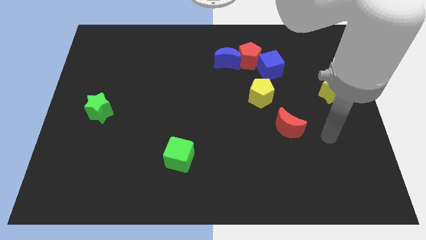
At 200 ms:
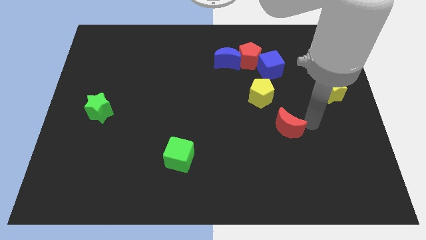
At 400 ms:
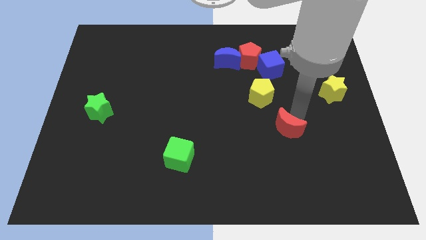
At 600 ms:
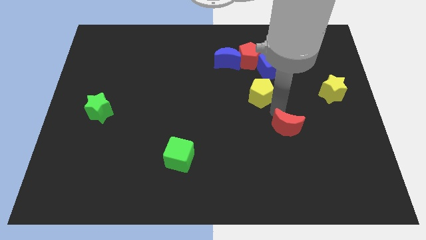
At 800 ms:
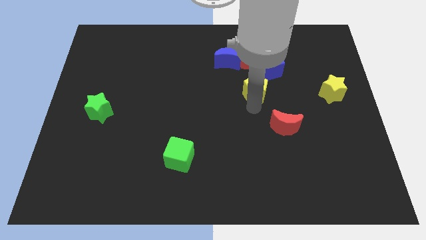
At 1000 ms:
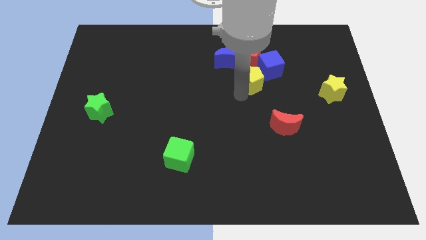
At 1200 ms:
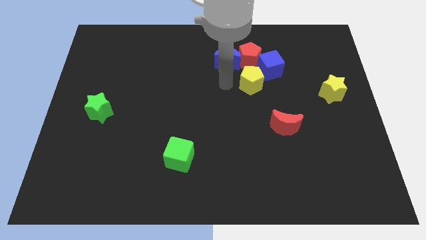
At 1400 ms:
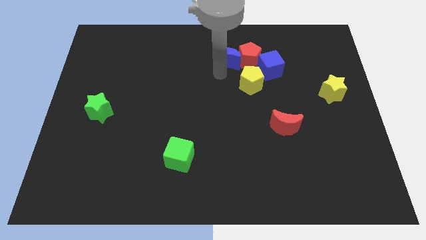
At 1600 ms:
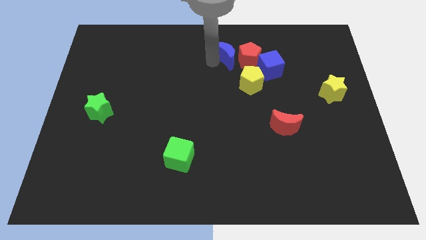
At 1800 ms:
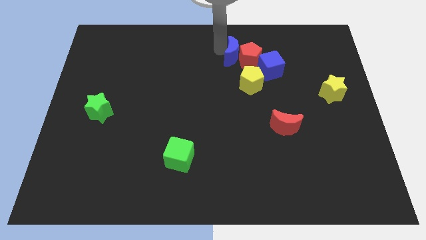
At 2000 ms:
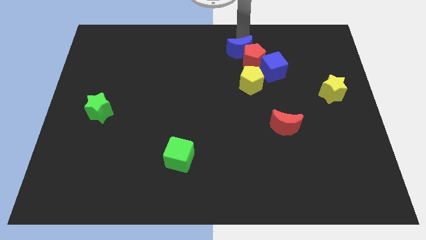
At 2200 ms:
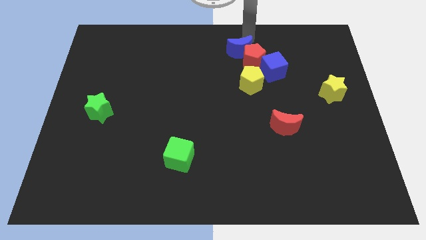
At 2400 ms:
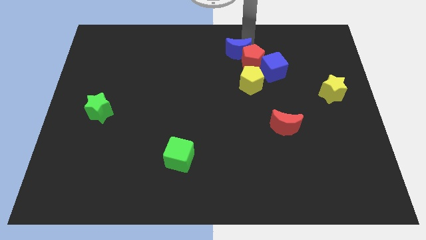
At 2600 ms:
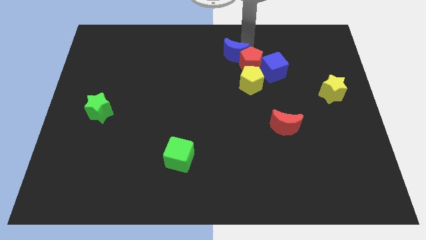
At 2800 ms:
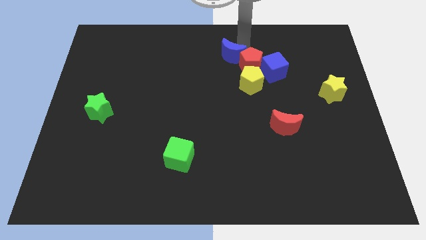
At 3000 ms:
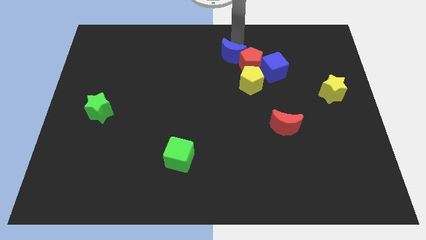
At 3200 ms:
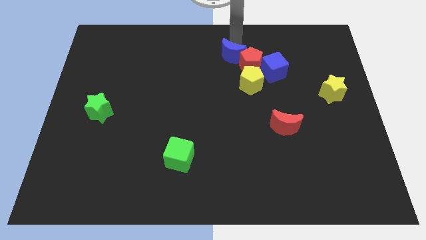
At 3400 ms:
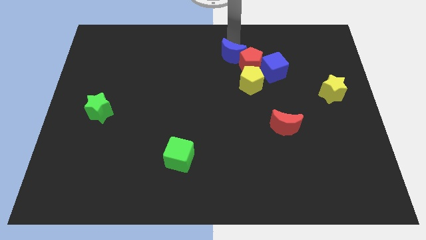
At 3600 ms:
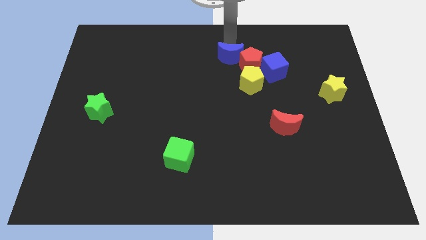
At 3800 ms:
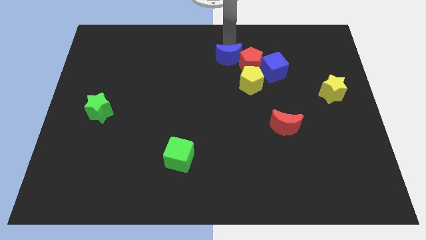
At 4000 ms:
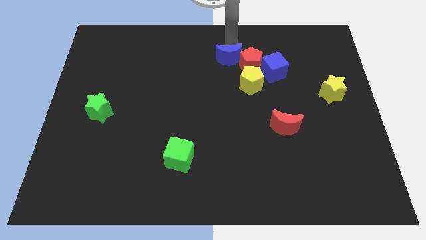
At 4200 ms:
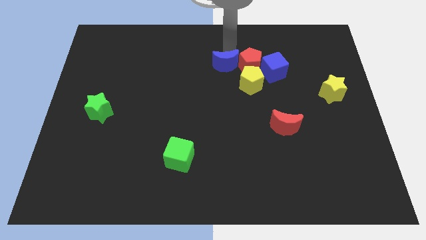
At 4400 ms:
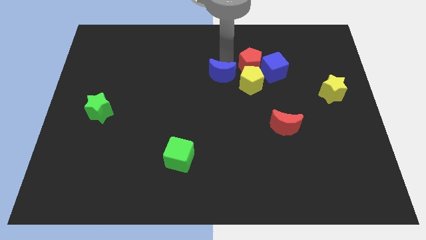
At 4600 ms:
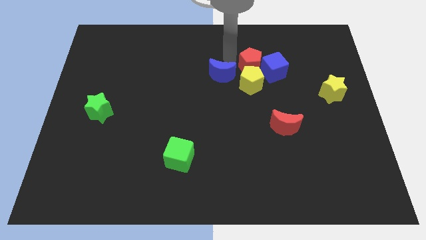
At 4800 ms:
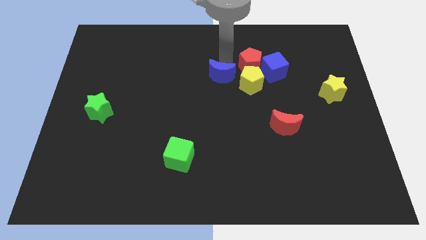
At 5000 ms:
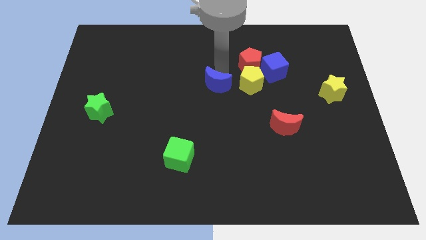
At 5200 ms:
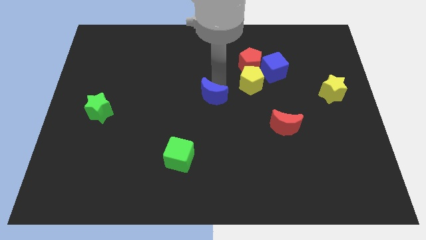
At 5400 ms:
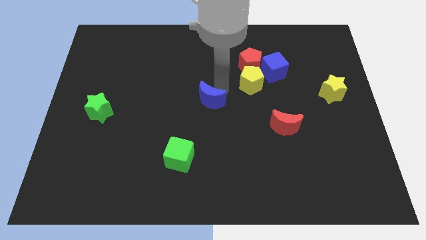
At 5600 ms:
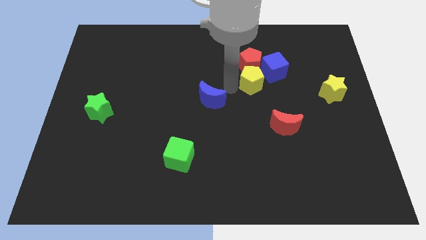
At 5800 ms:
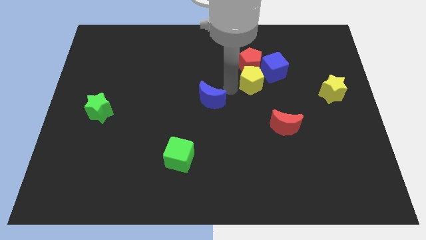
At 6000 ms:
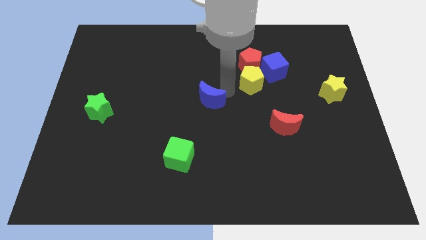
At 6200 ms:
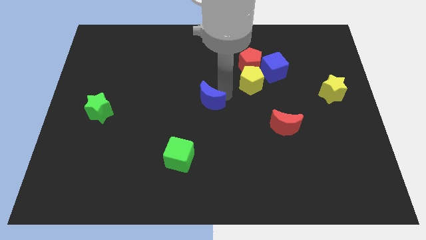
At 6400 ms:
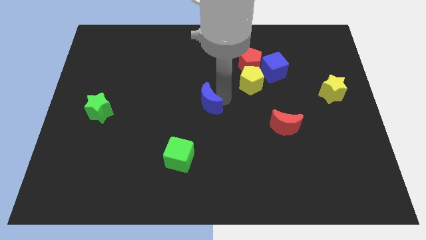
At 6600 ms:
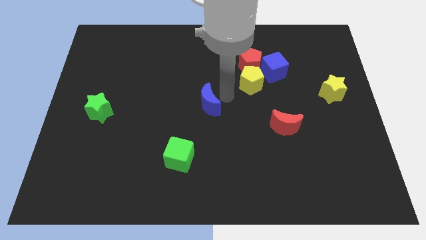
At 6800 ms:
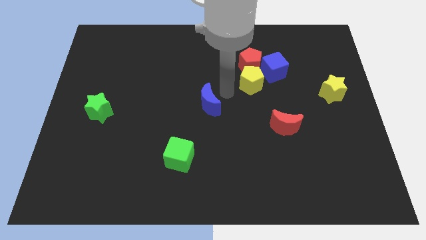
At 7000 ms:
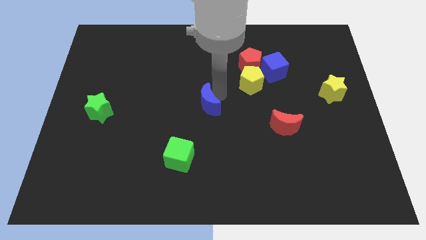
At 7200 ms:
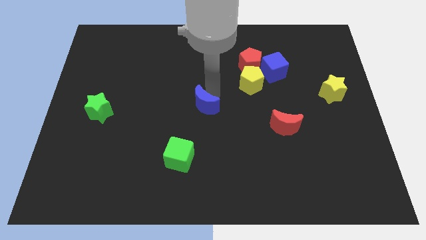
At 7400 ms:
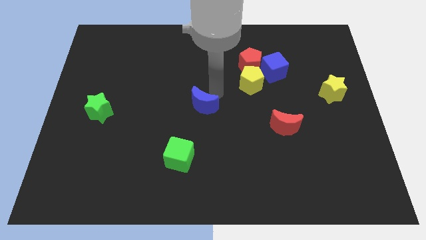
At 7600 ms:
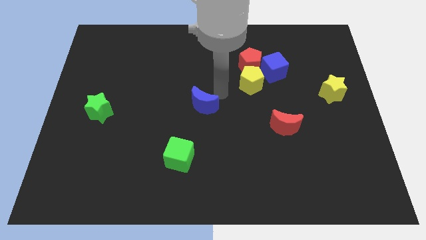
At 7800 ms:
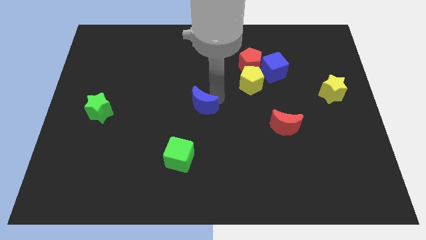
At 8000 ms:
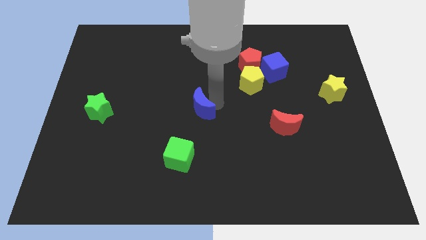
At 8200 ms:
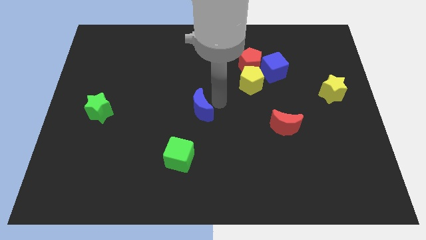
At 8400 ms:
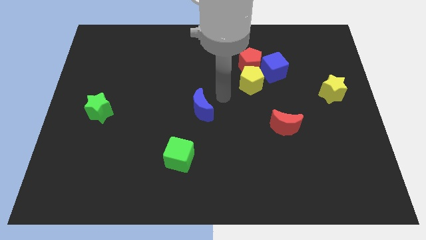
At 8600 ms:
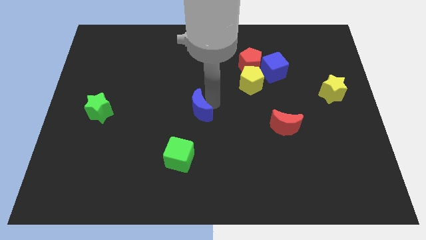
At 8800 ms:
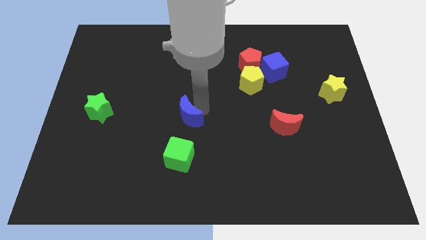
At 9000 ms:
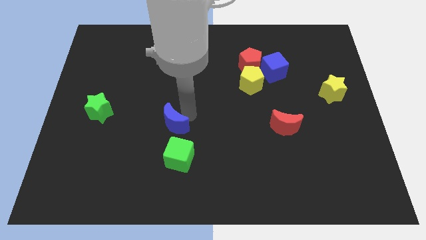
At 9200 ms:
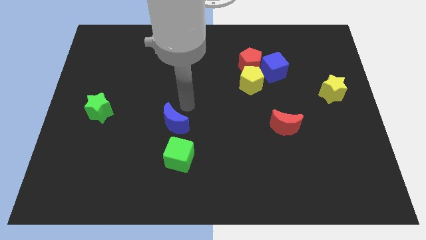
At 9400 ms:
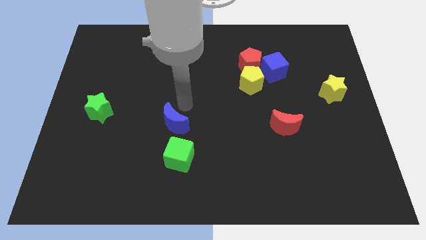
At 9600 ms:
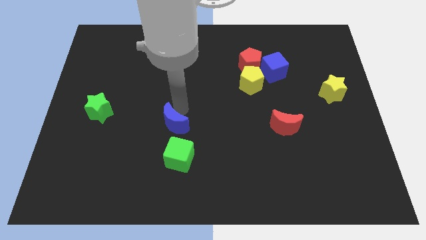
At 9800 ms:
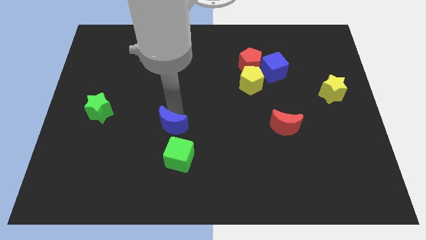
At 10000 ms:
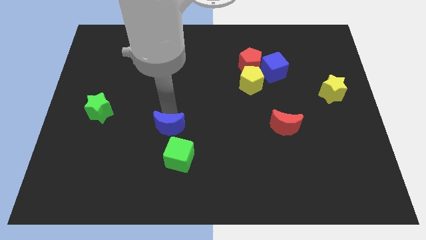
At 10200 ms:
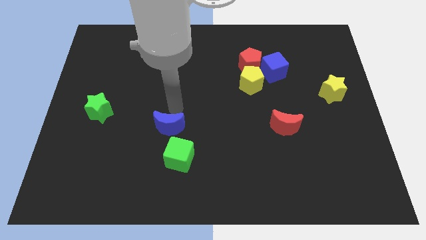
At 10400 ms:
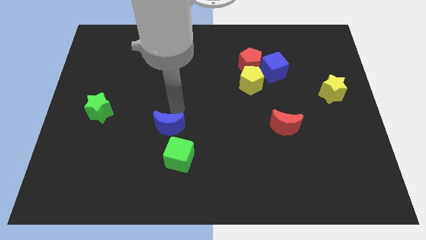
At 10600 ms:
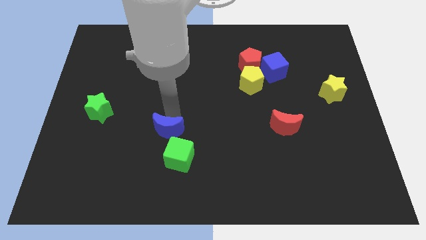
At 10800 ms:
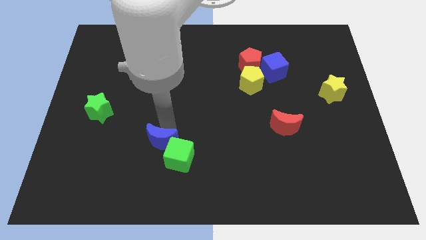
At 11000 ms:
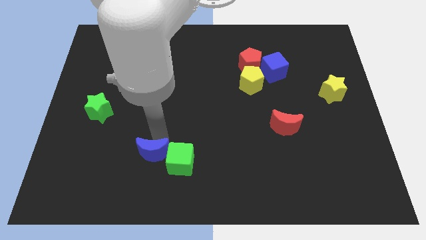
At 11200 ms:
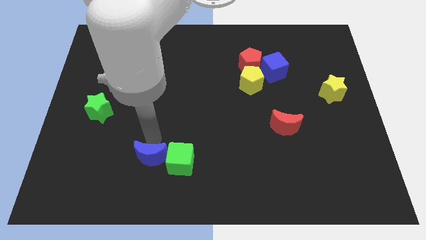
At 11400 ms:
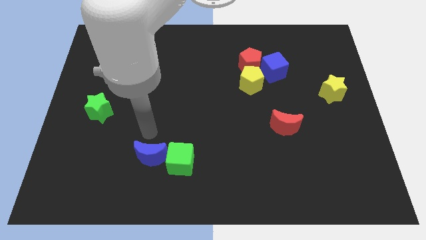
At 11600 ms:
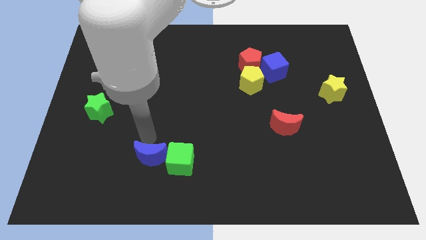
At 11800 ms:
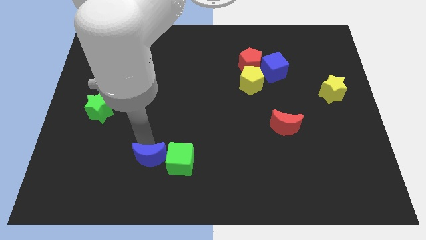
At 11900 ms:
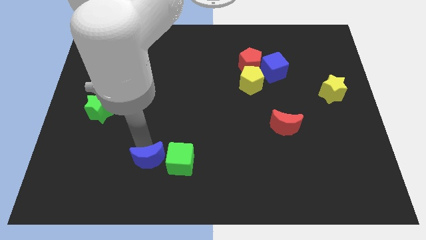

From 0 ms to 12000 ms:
put the blue moon to the bottom left of the green cube

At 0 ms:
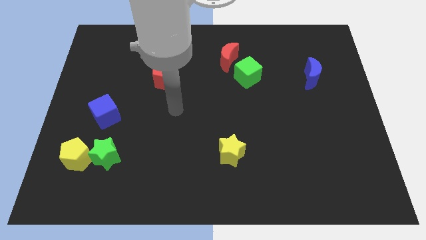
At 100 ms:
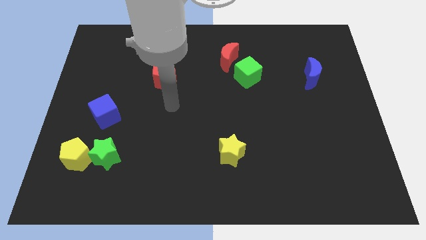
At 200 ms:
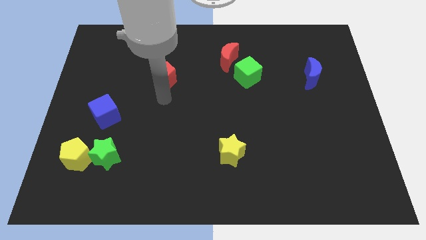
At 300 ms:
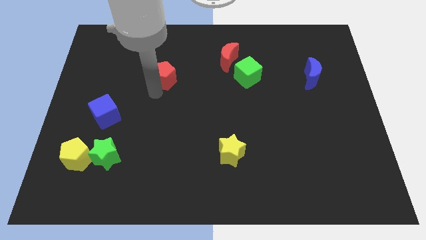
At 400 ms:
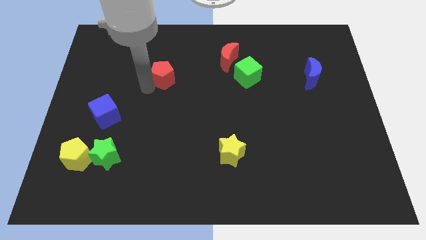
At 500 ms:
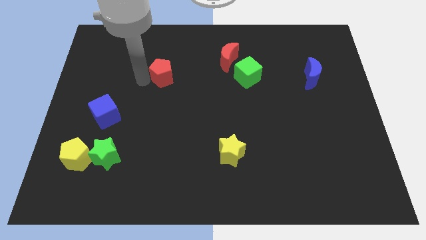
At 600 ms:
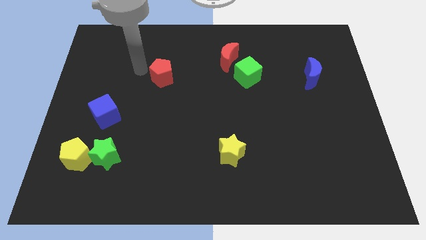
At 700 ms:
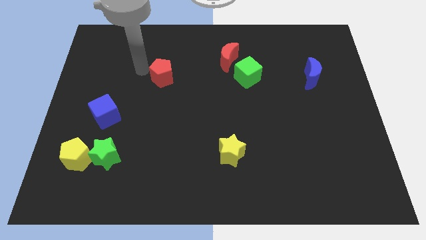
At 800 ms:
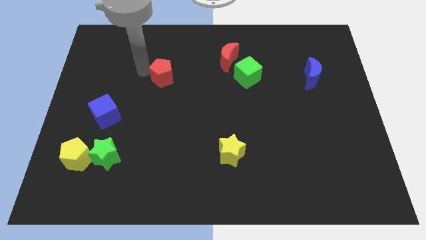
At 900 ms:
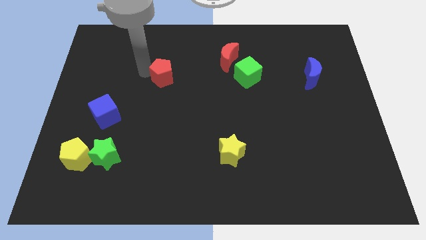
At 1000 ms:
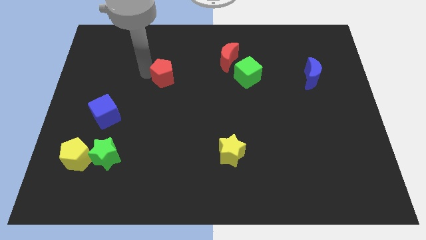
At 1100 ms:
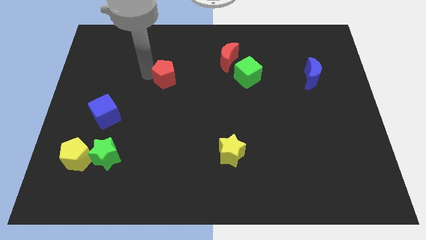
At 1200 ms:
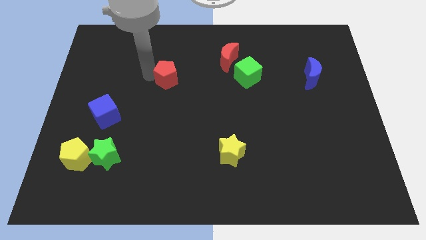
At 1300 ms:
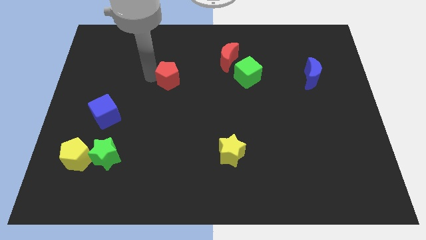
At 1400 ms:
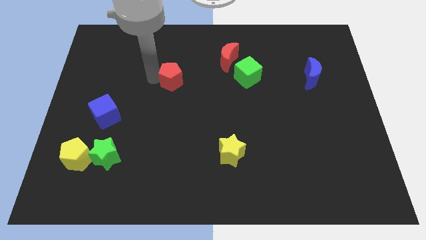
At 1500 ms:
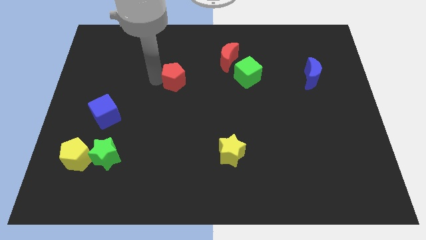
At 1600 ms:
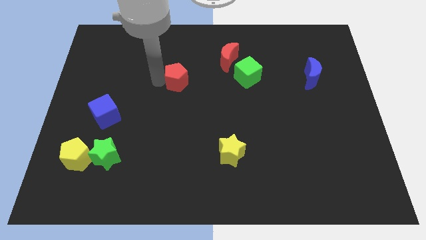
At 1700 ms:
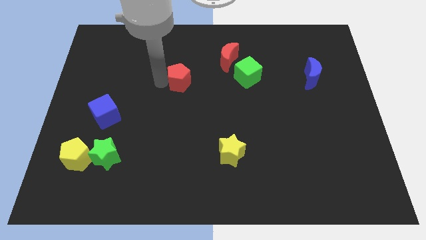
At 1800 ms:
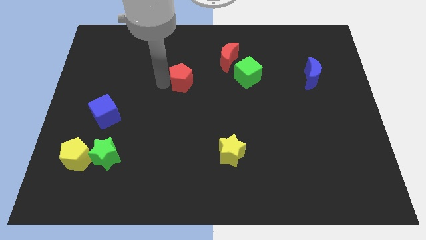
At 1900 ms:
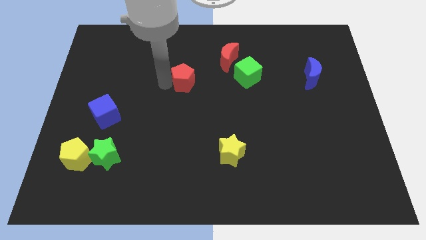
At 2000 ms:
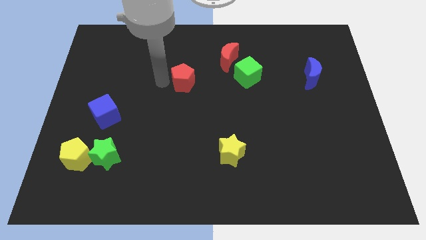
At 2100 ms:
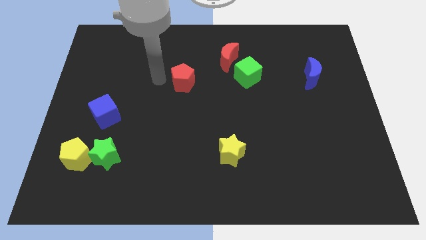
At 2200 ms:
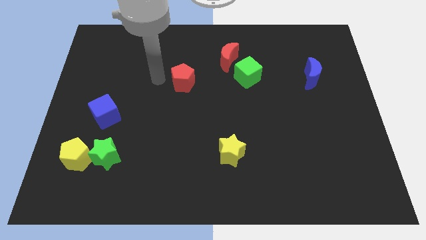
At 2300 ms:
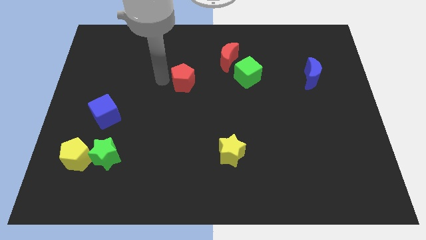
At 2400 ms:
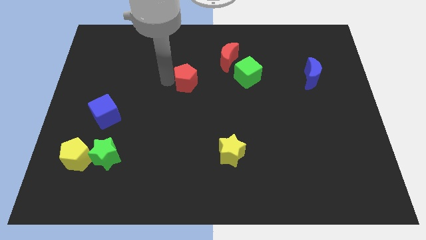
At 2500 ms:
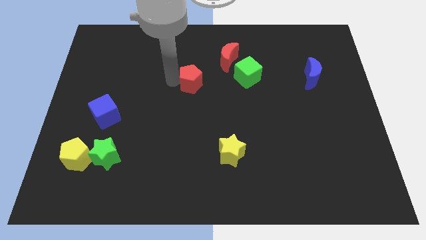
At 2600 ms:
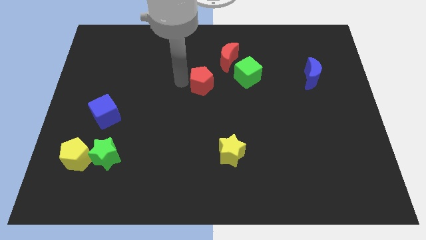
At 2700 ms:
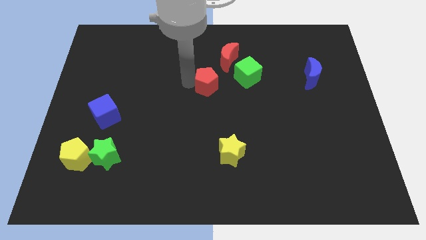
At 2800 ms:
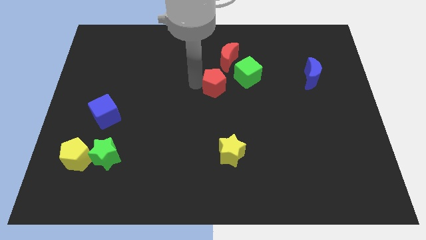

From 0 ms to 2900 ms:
put the red pentagon to the bottom left side of the green cube
